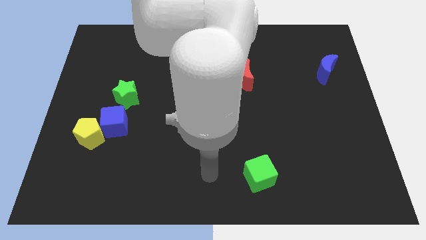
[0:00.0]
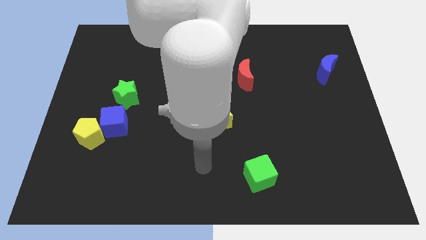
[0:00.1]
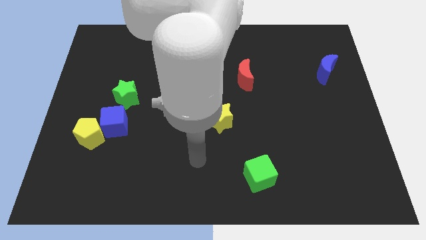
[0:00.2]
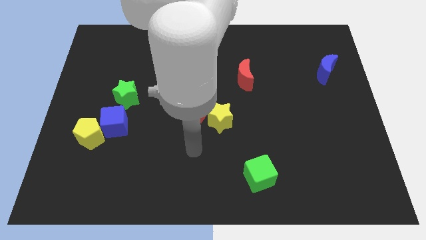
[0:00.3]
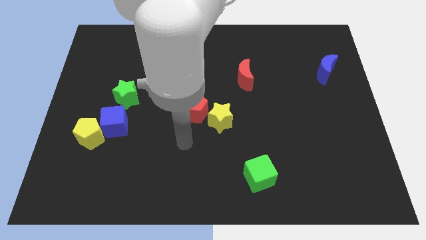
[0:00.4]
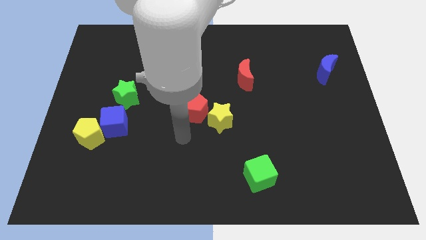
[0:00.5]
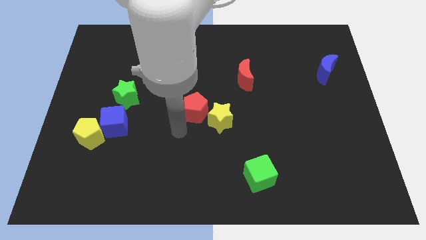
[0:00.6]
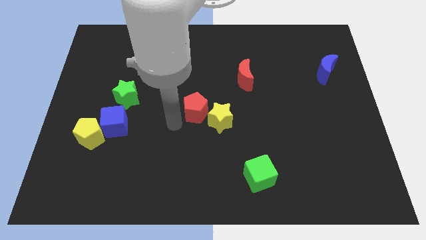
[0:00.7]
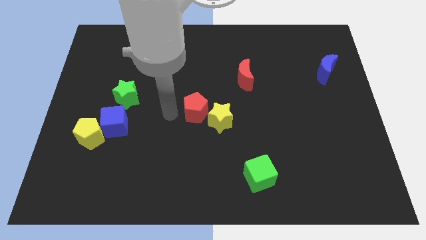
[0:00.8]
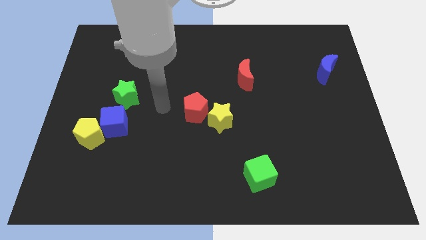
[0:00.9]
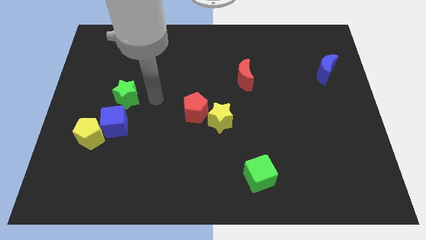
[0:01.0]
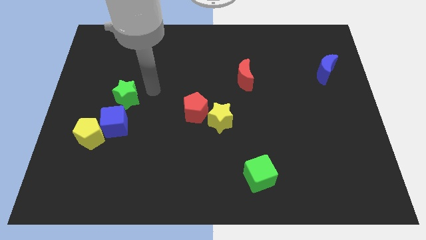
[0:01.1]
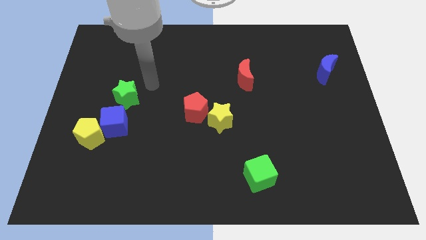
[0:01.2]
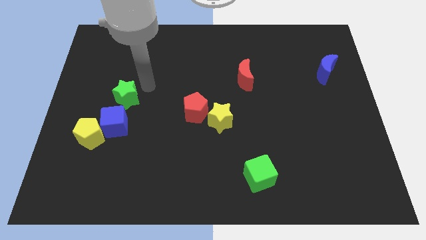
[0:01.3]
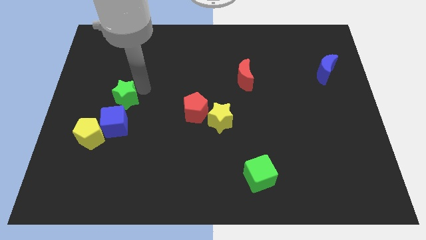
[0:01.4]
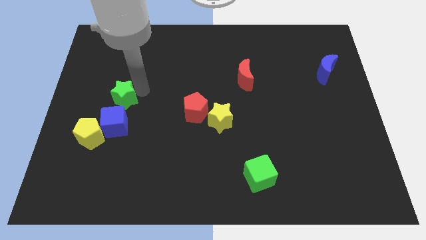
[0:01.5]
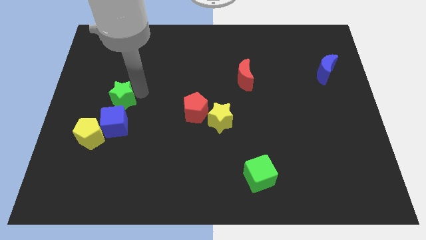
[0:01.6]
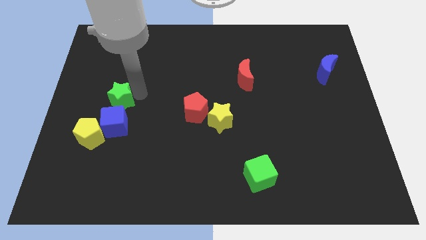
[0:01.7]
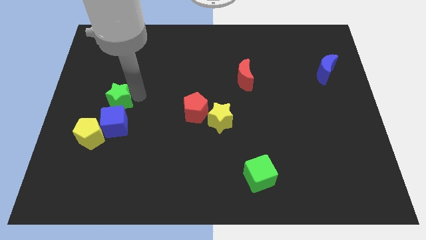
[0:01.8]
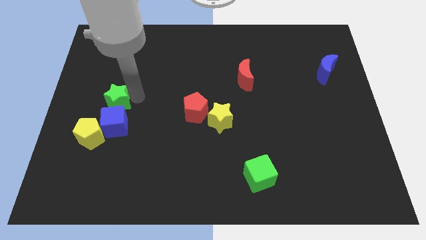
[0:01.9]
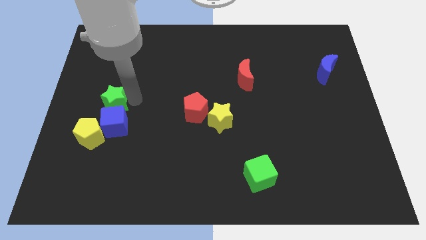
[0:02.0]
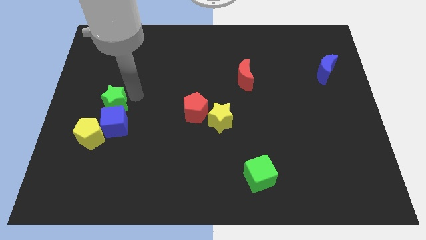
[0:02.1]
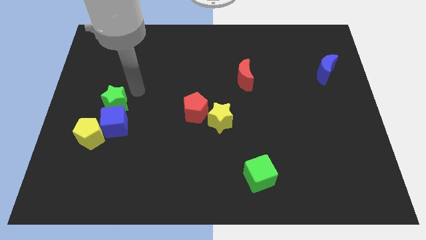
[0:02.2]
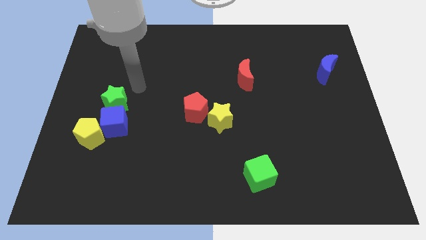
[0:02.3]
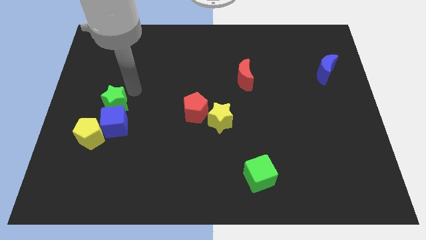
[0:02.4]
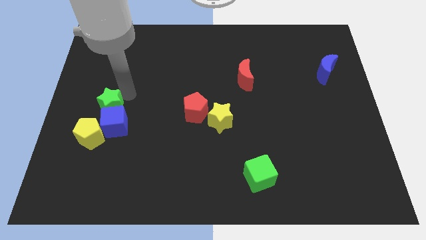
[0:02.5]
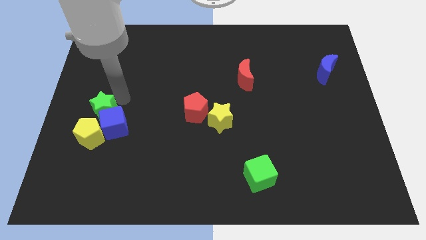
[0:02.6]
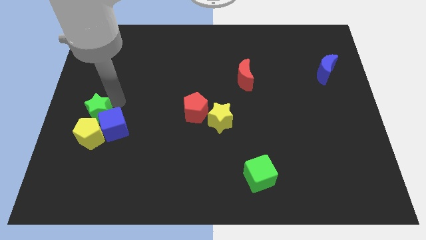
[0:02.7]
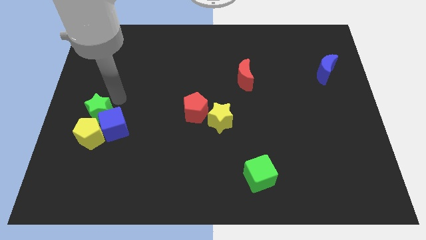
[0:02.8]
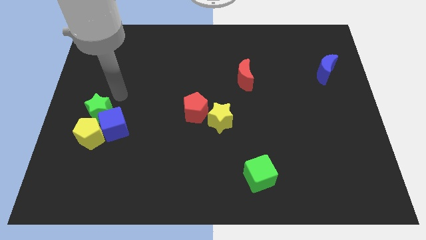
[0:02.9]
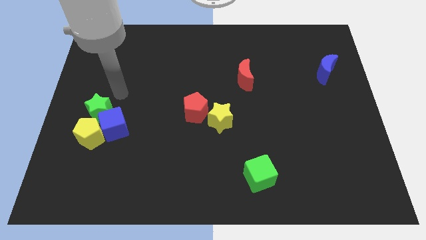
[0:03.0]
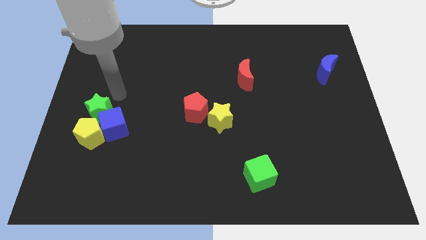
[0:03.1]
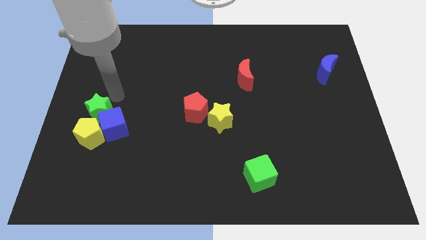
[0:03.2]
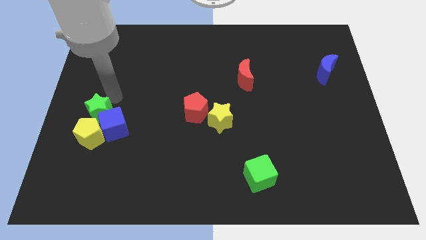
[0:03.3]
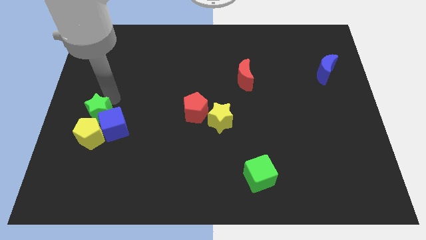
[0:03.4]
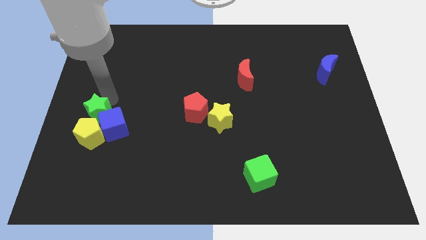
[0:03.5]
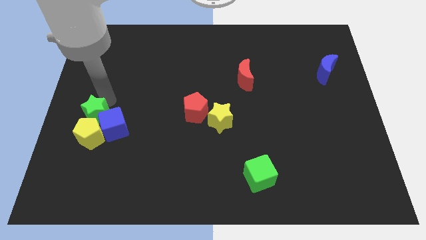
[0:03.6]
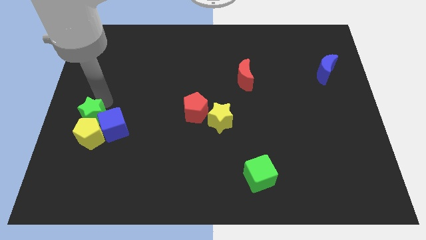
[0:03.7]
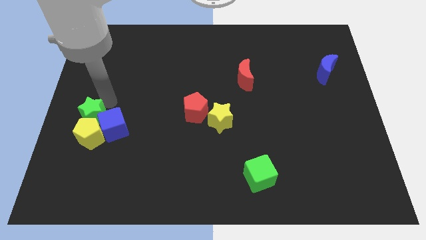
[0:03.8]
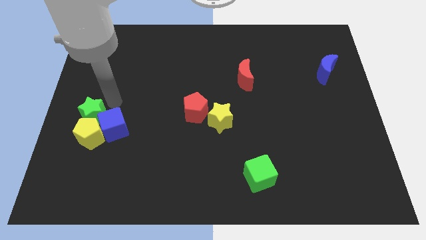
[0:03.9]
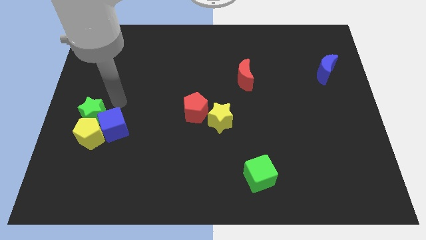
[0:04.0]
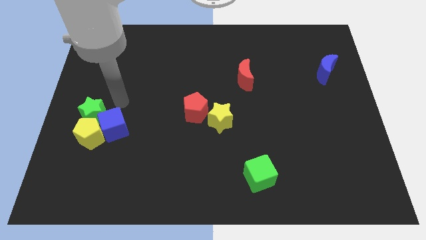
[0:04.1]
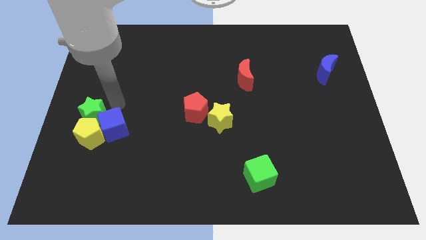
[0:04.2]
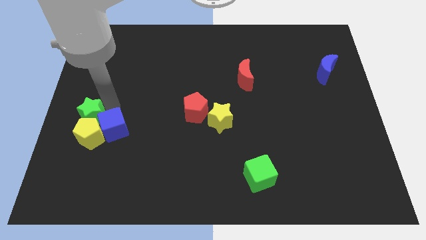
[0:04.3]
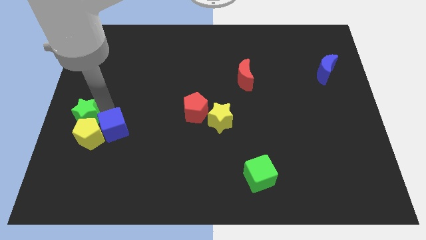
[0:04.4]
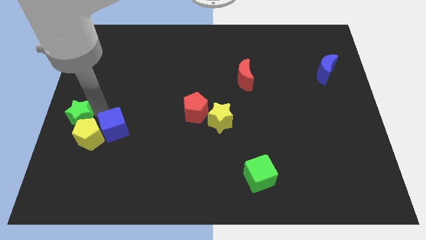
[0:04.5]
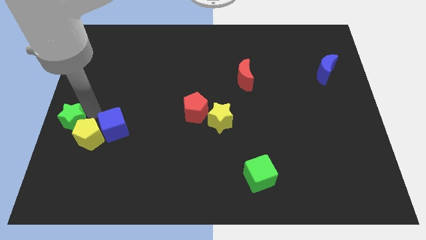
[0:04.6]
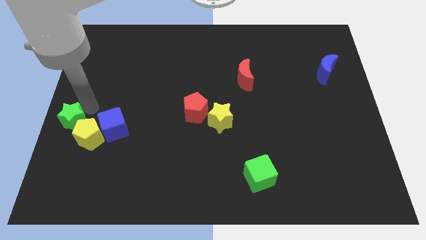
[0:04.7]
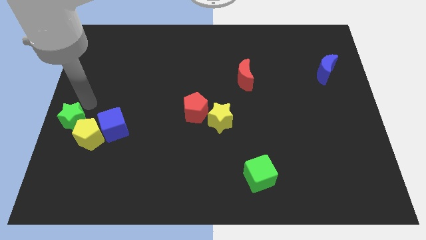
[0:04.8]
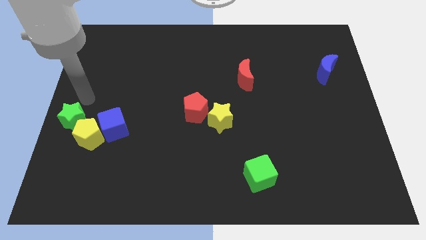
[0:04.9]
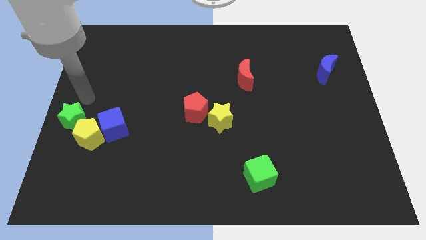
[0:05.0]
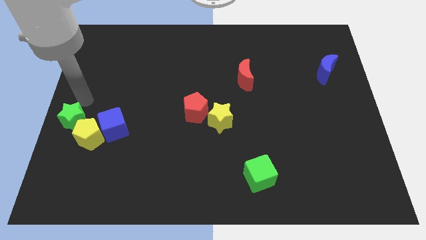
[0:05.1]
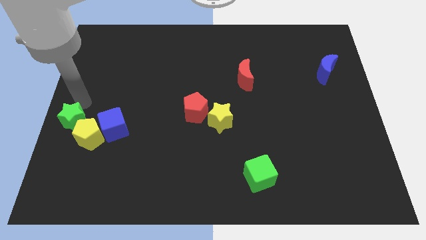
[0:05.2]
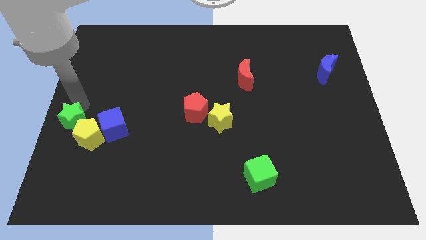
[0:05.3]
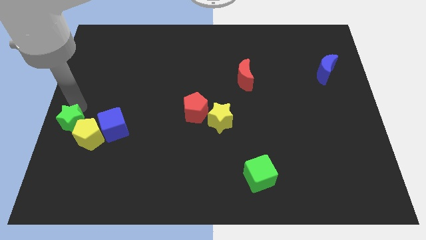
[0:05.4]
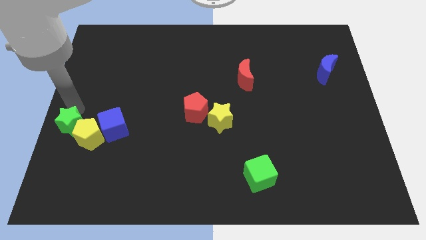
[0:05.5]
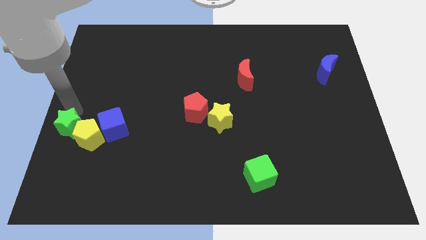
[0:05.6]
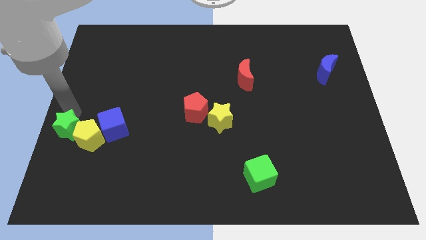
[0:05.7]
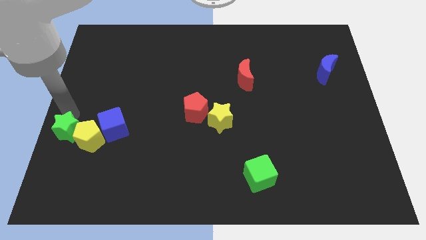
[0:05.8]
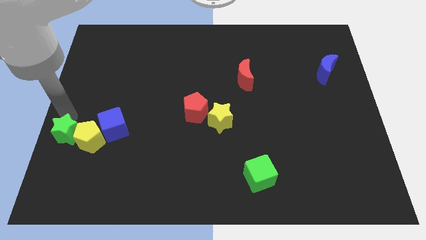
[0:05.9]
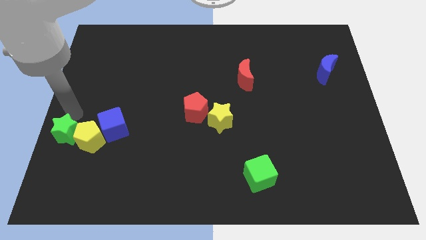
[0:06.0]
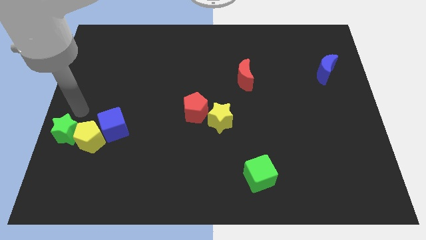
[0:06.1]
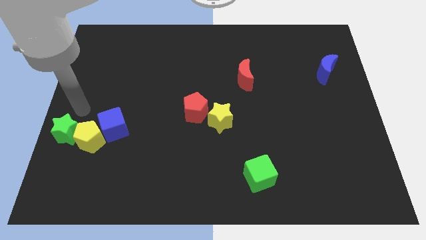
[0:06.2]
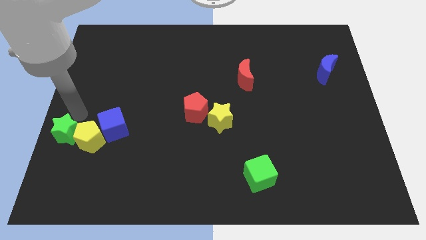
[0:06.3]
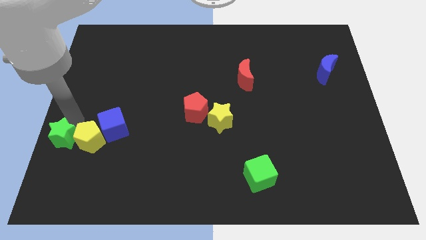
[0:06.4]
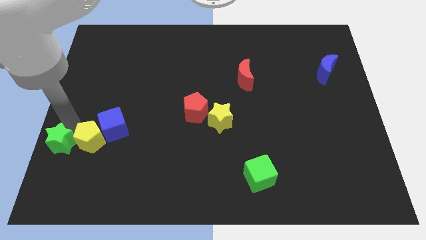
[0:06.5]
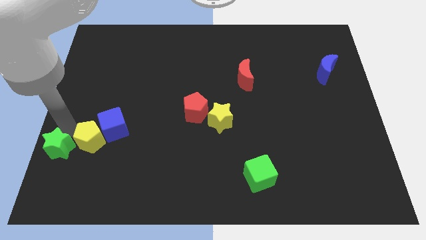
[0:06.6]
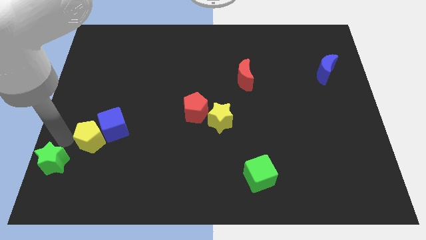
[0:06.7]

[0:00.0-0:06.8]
move the green star to the bottom left
